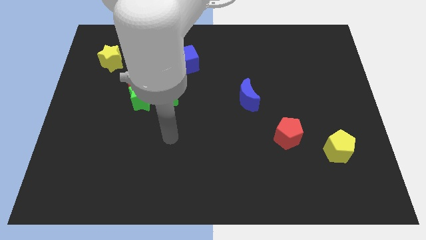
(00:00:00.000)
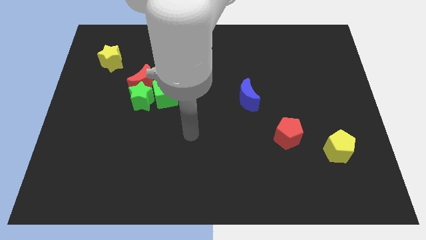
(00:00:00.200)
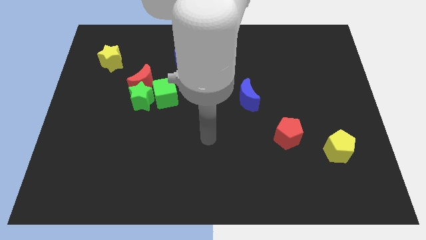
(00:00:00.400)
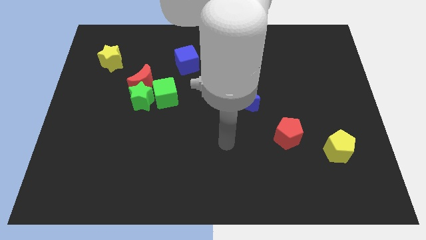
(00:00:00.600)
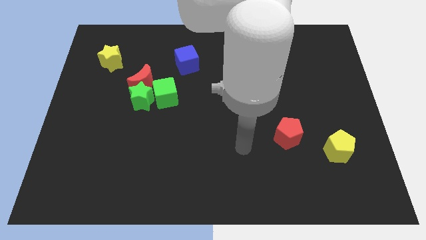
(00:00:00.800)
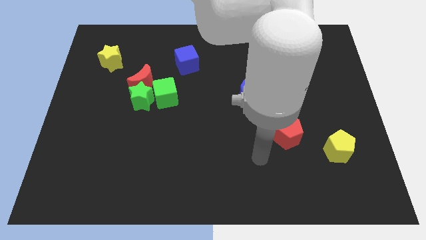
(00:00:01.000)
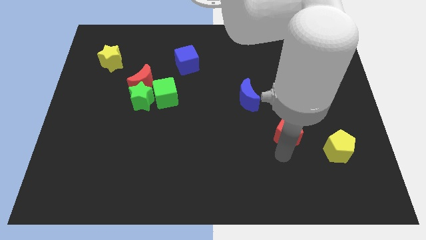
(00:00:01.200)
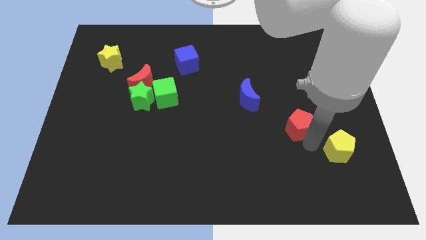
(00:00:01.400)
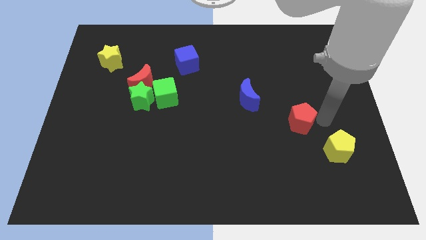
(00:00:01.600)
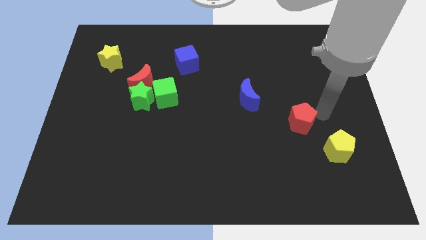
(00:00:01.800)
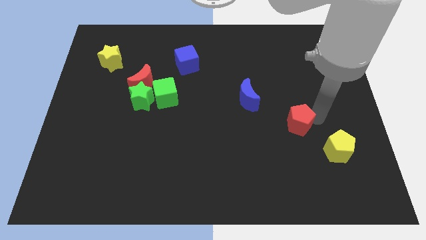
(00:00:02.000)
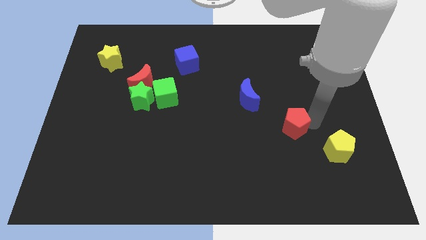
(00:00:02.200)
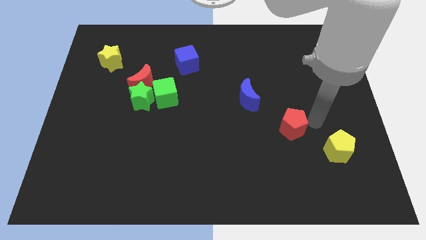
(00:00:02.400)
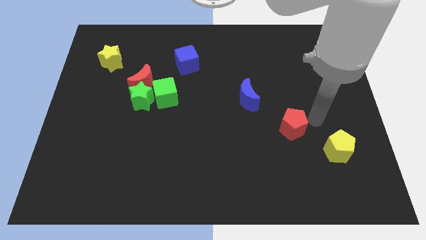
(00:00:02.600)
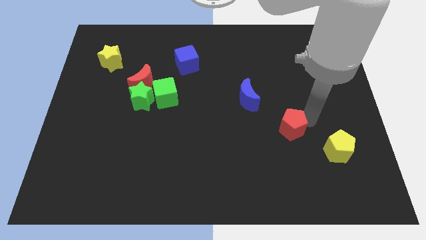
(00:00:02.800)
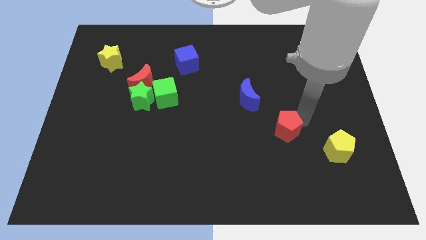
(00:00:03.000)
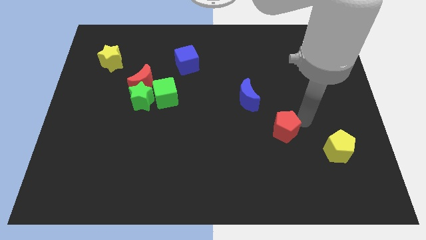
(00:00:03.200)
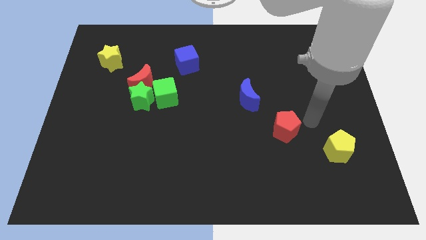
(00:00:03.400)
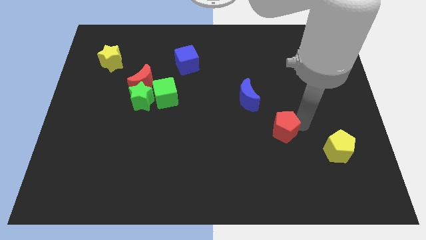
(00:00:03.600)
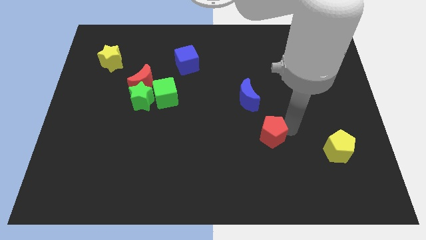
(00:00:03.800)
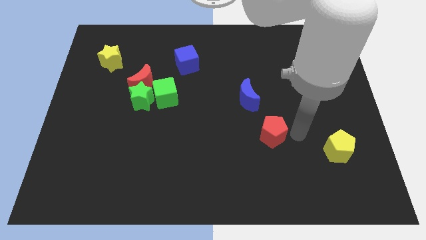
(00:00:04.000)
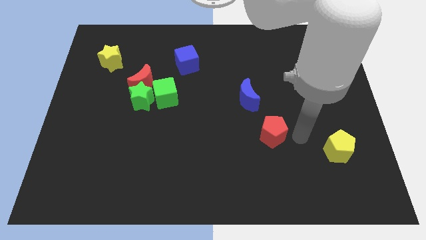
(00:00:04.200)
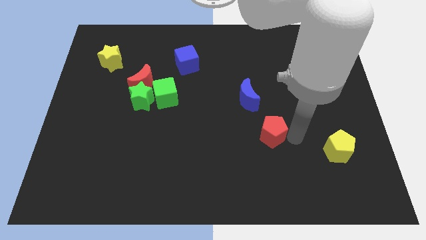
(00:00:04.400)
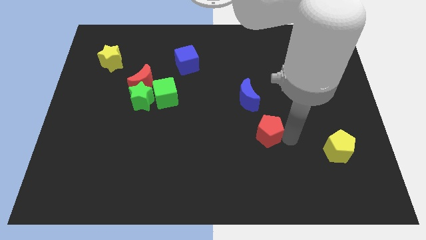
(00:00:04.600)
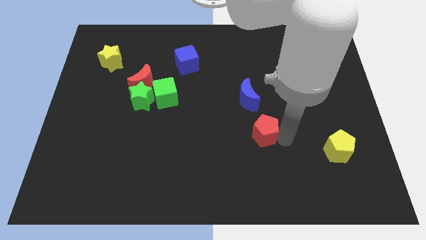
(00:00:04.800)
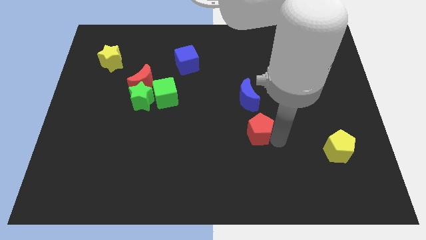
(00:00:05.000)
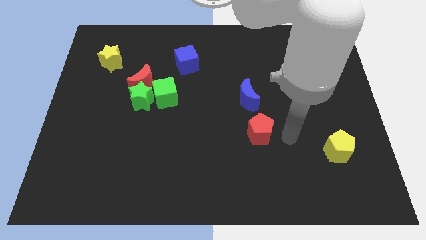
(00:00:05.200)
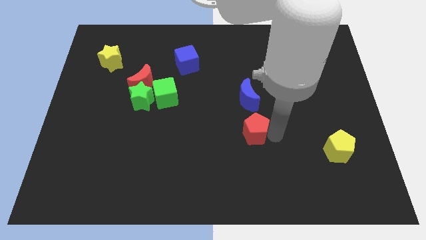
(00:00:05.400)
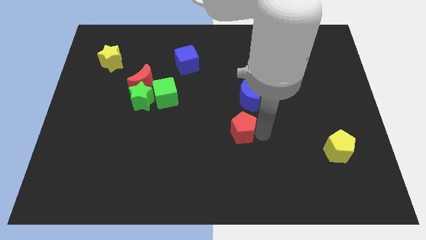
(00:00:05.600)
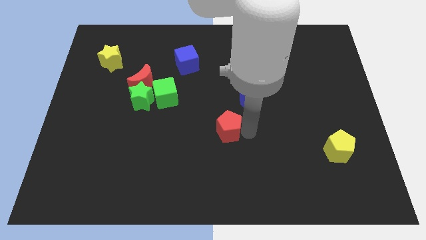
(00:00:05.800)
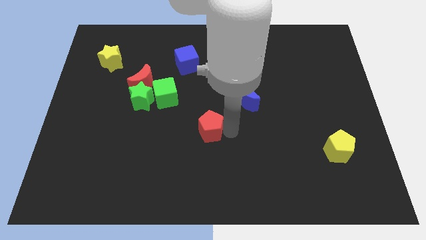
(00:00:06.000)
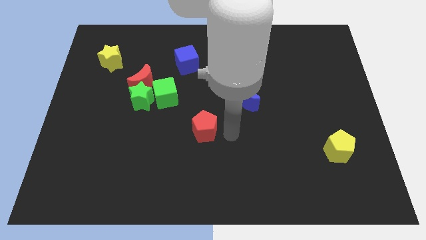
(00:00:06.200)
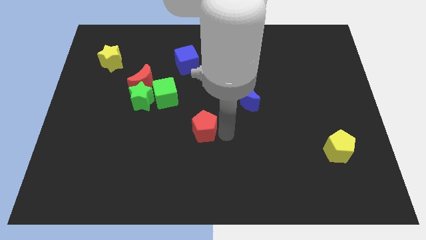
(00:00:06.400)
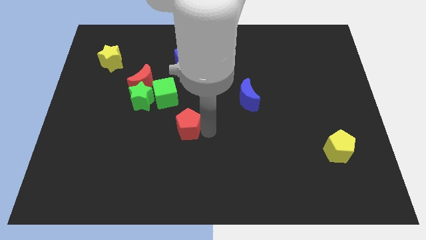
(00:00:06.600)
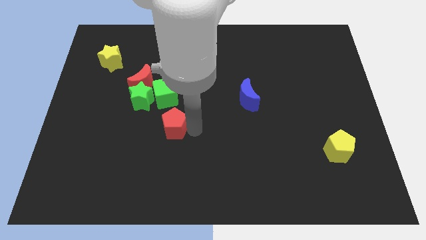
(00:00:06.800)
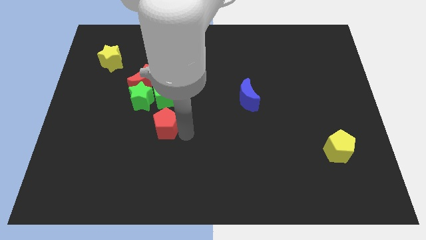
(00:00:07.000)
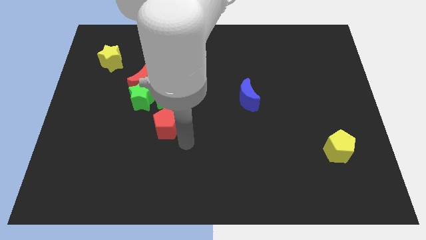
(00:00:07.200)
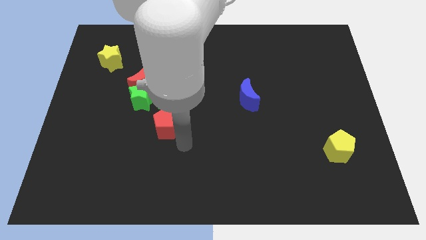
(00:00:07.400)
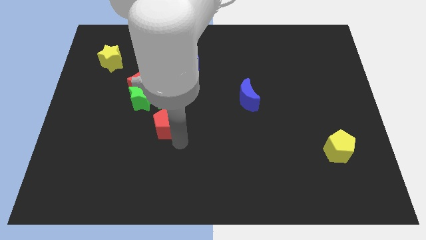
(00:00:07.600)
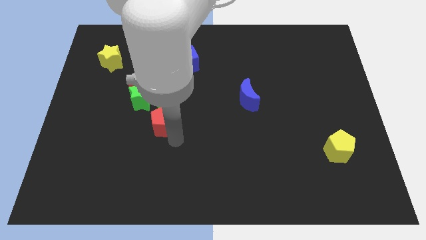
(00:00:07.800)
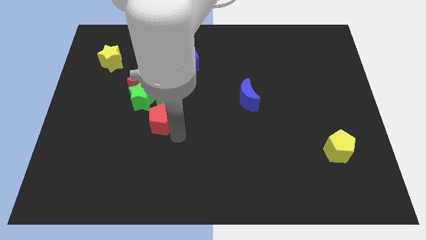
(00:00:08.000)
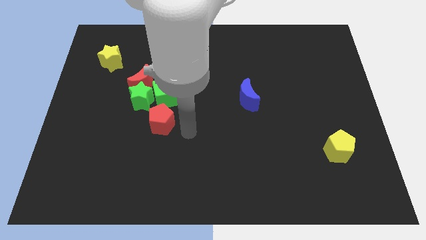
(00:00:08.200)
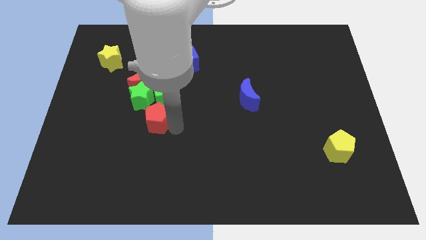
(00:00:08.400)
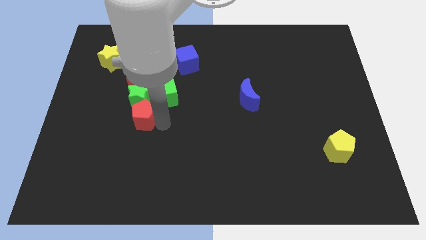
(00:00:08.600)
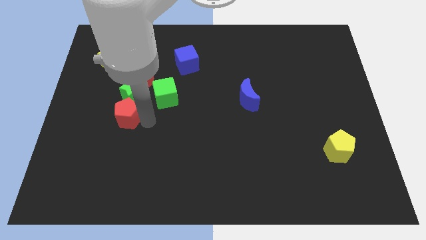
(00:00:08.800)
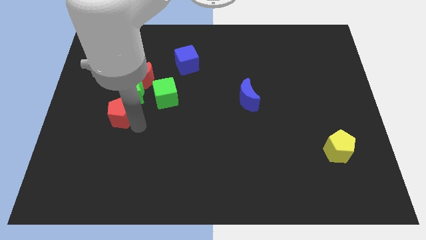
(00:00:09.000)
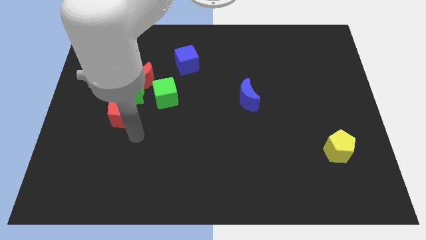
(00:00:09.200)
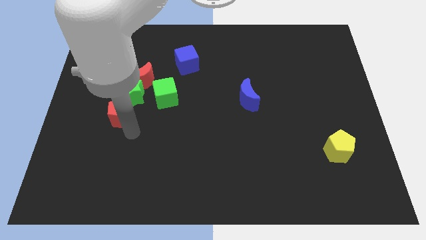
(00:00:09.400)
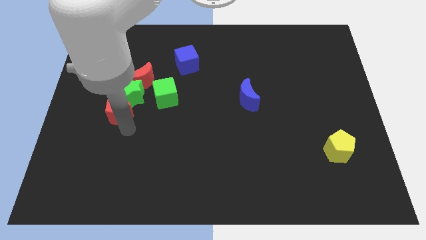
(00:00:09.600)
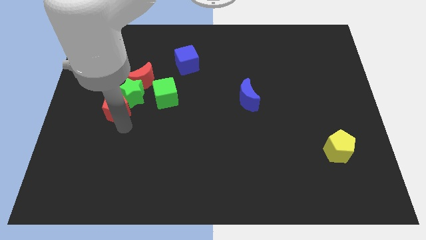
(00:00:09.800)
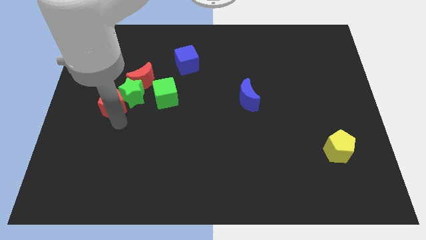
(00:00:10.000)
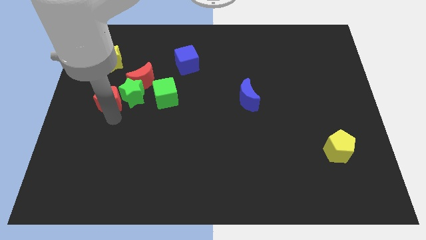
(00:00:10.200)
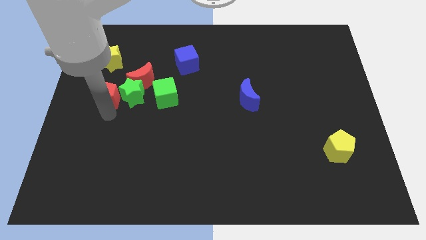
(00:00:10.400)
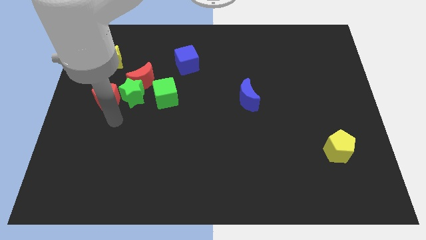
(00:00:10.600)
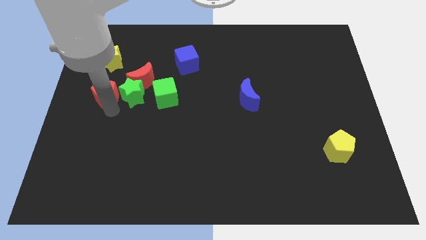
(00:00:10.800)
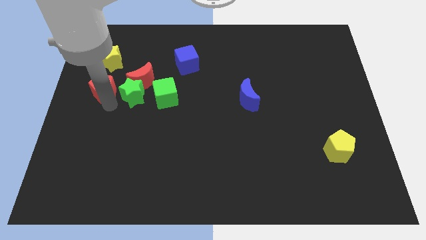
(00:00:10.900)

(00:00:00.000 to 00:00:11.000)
push the red pentagon to the left of the red moon

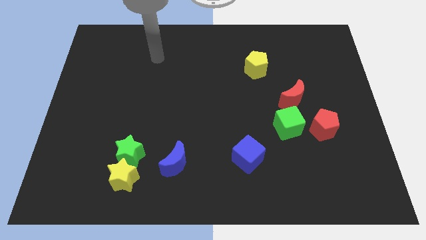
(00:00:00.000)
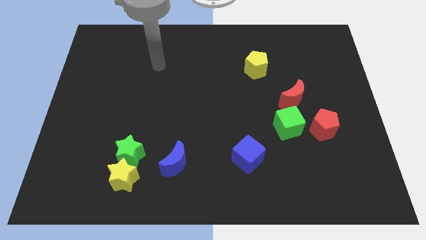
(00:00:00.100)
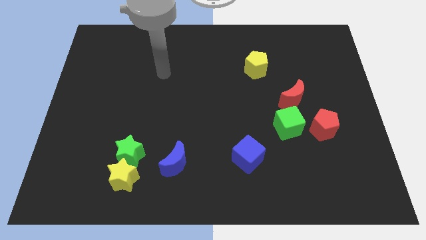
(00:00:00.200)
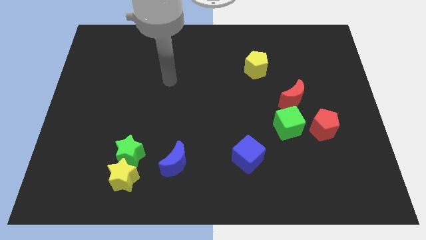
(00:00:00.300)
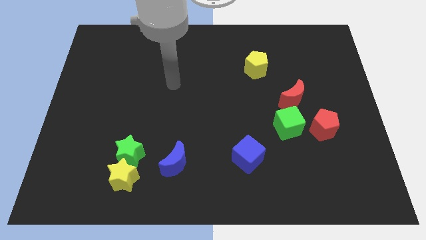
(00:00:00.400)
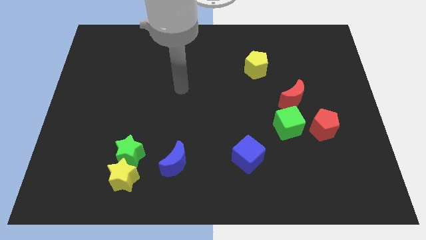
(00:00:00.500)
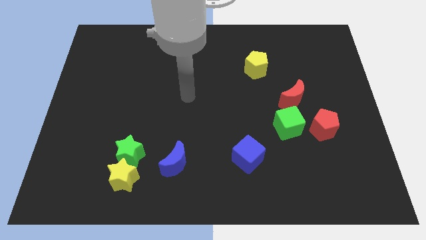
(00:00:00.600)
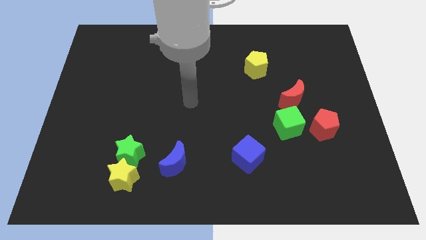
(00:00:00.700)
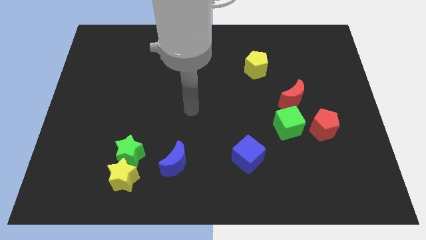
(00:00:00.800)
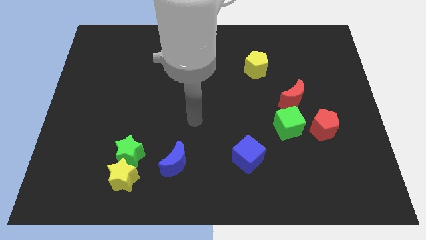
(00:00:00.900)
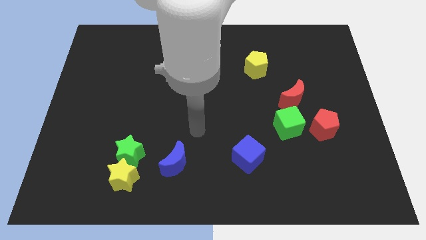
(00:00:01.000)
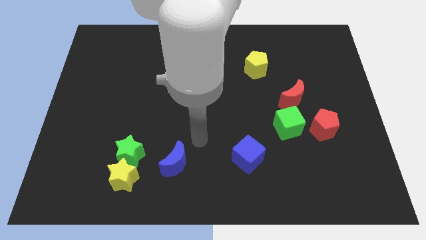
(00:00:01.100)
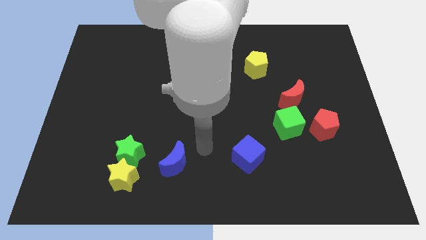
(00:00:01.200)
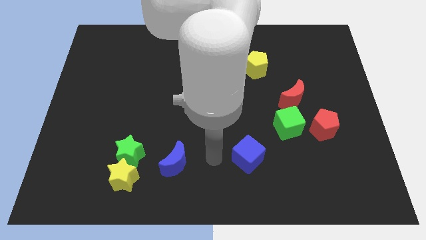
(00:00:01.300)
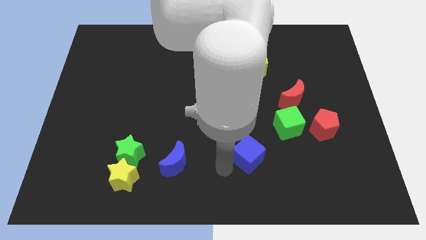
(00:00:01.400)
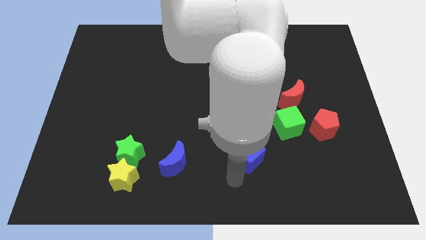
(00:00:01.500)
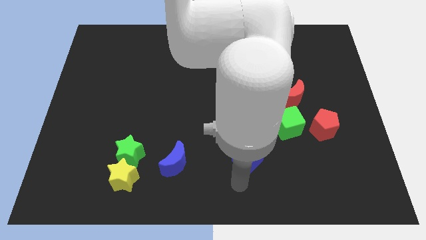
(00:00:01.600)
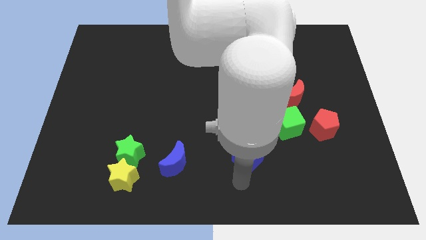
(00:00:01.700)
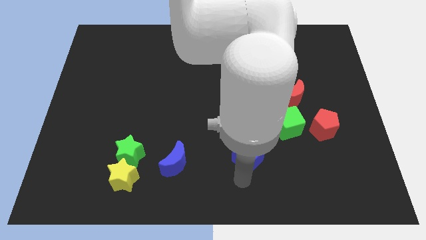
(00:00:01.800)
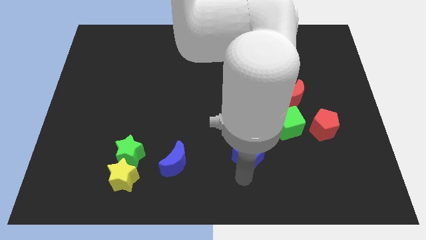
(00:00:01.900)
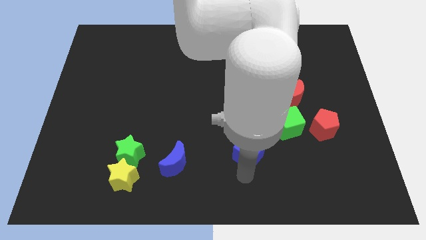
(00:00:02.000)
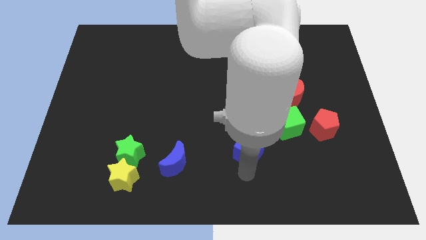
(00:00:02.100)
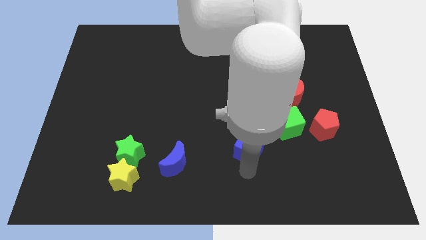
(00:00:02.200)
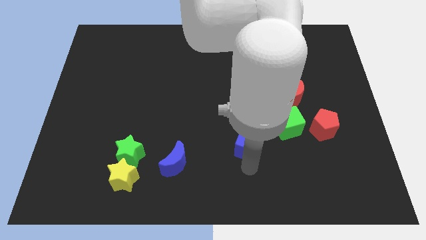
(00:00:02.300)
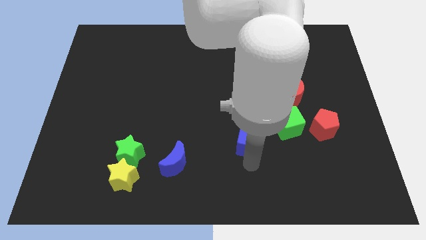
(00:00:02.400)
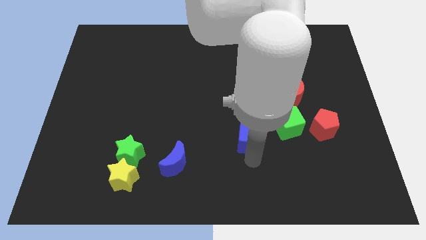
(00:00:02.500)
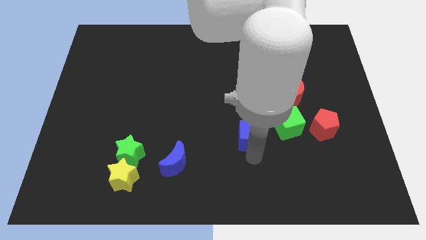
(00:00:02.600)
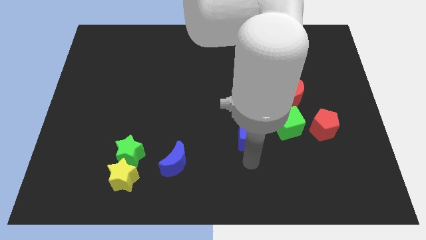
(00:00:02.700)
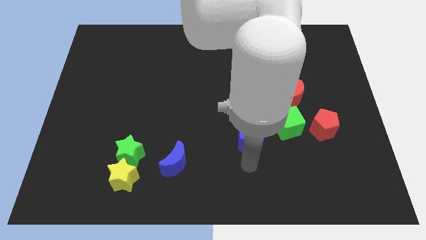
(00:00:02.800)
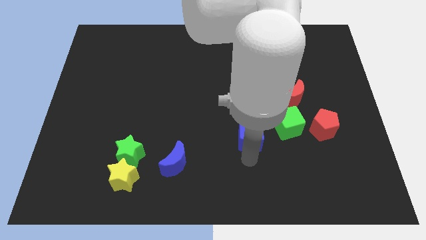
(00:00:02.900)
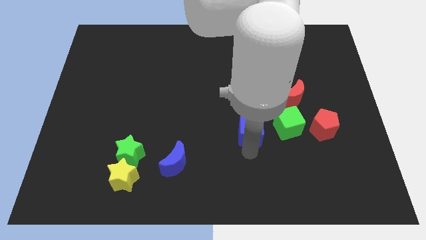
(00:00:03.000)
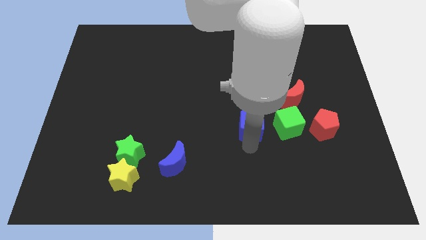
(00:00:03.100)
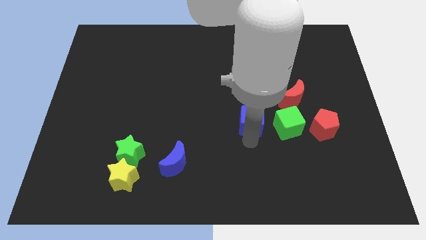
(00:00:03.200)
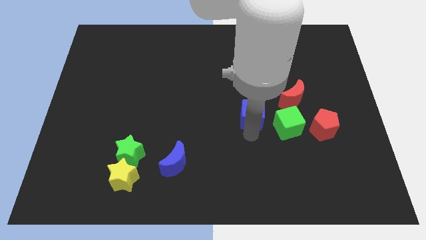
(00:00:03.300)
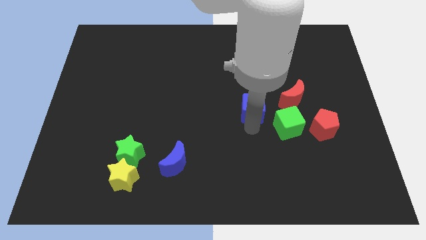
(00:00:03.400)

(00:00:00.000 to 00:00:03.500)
push the blue cube to the left of the red moon
